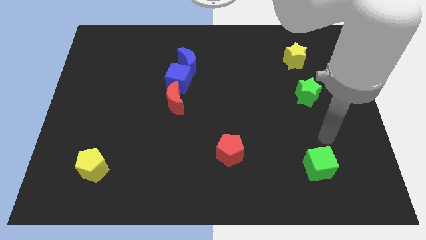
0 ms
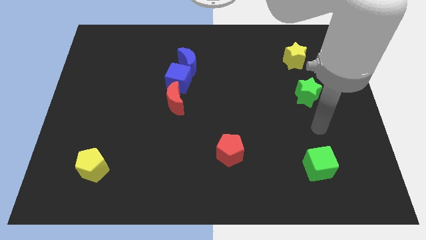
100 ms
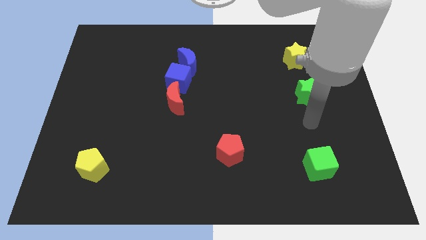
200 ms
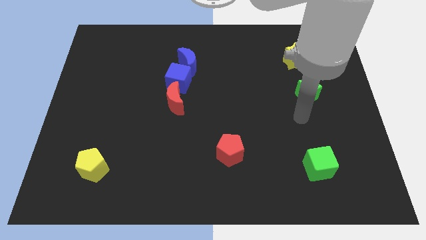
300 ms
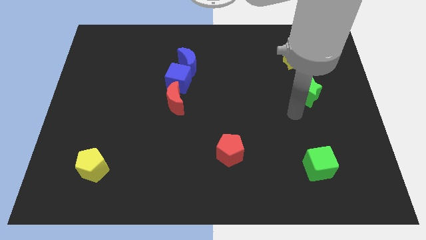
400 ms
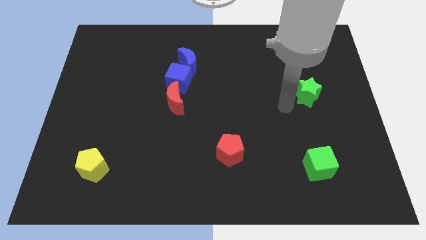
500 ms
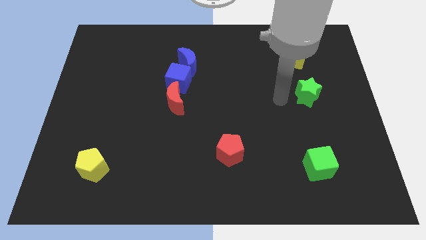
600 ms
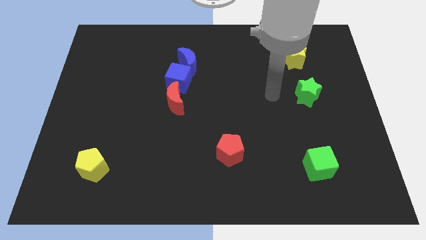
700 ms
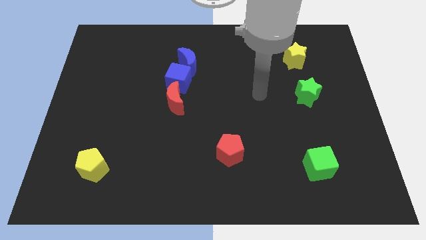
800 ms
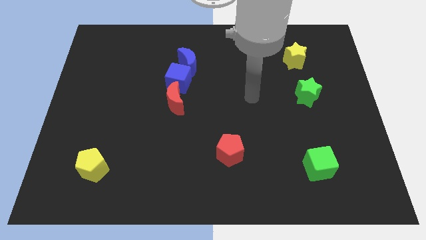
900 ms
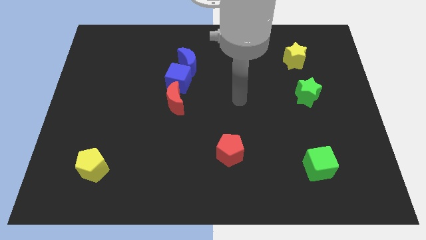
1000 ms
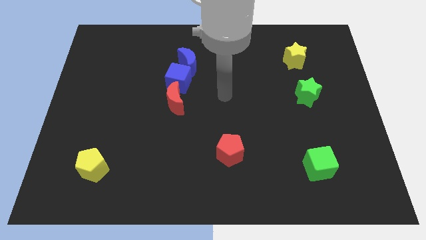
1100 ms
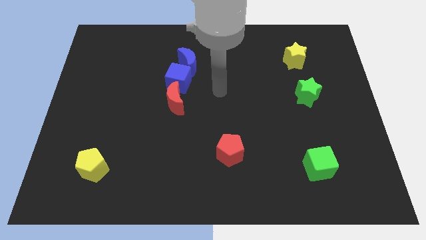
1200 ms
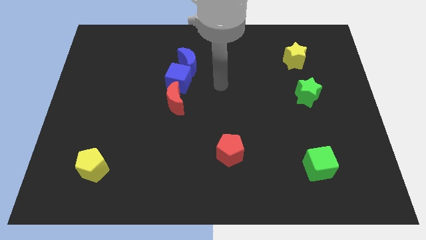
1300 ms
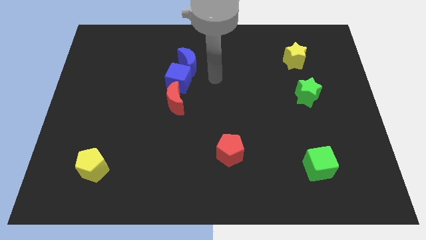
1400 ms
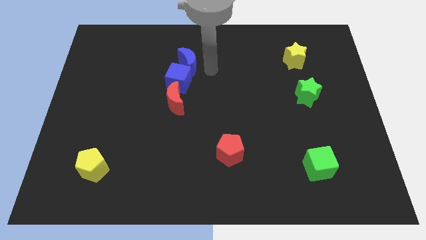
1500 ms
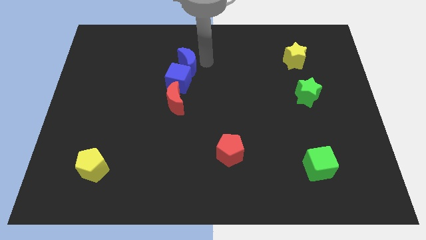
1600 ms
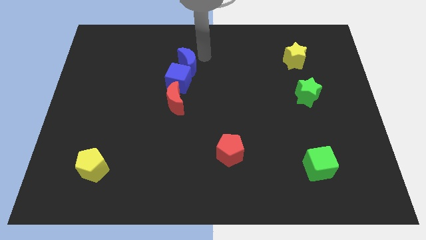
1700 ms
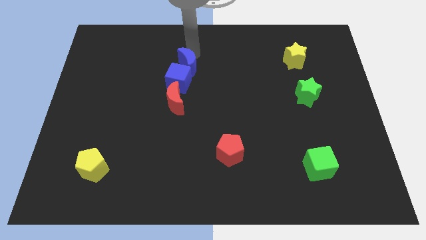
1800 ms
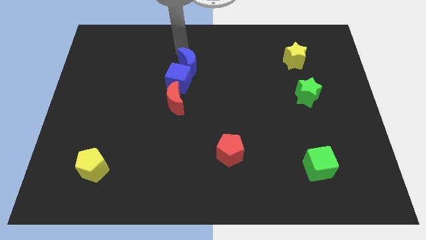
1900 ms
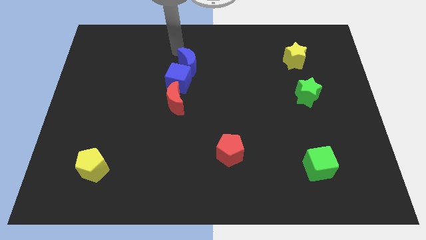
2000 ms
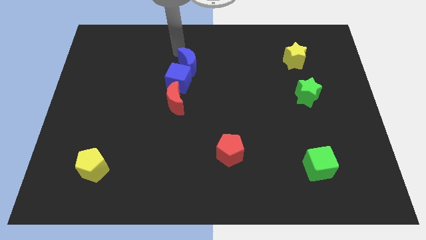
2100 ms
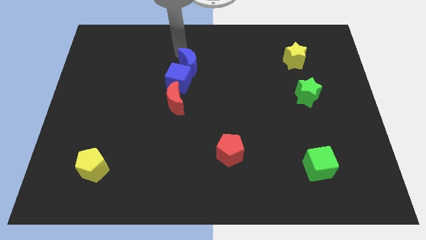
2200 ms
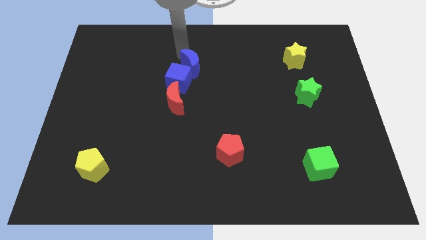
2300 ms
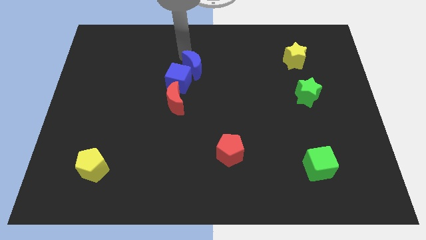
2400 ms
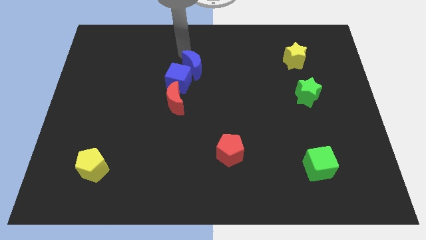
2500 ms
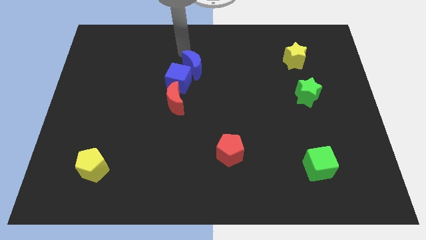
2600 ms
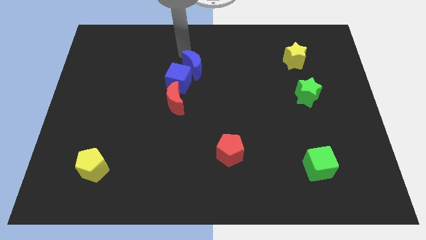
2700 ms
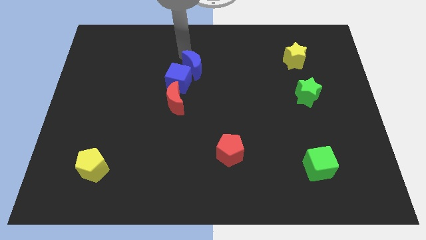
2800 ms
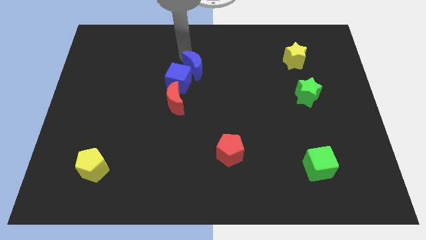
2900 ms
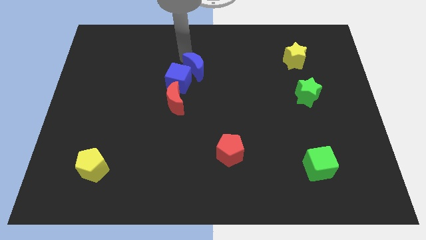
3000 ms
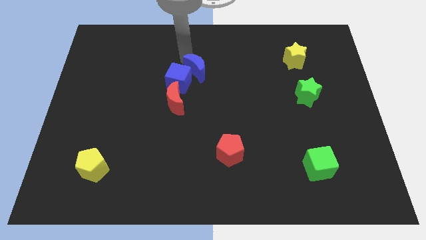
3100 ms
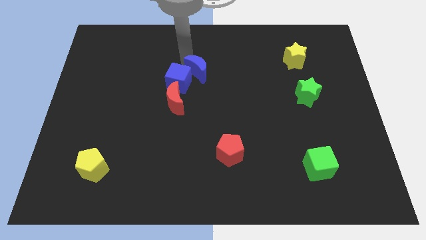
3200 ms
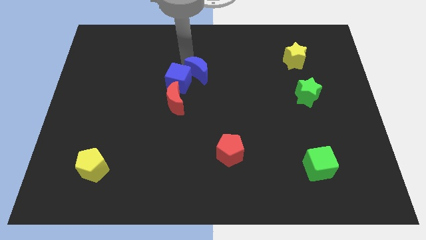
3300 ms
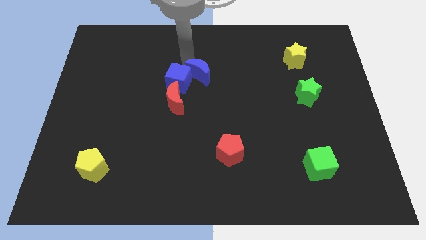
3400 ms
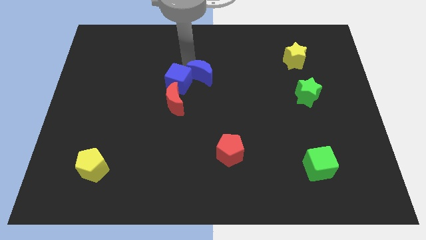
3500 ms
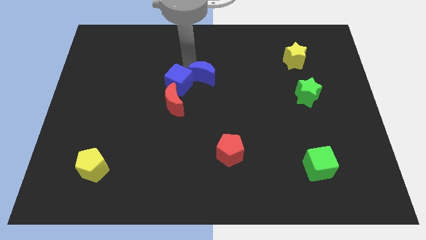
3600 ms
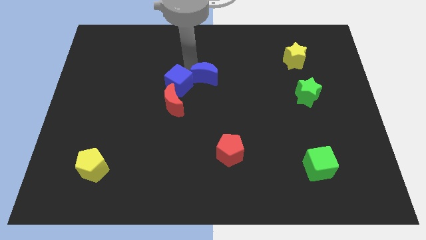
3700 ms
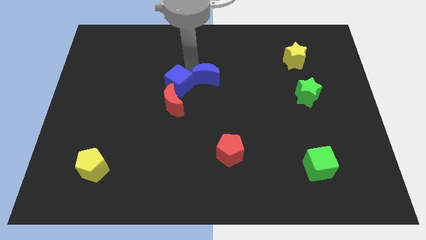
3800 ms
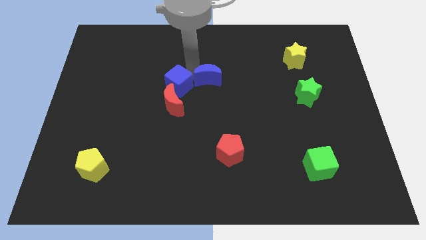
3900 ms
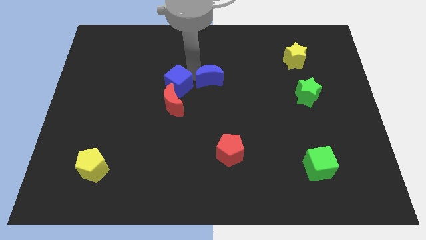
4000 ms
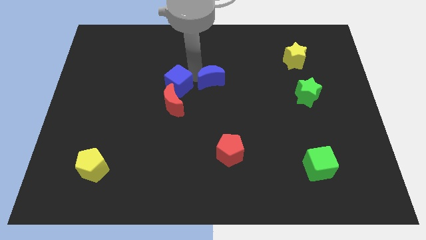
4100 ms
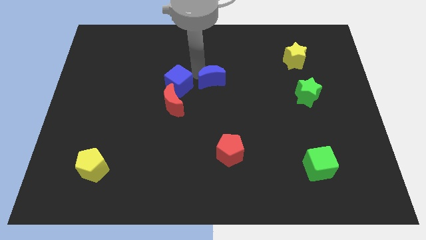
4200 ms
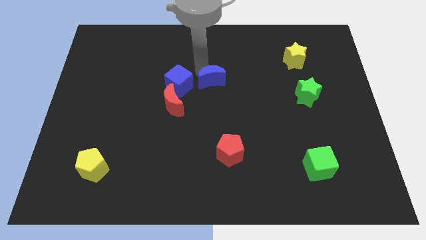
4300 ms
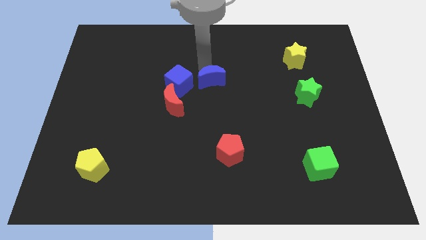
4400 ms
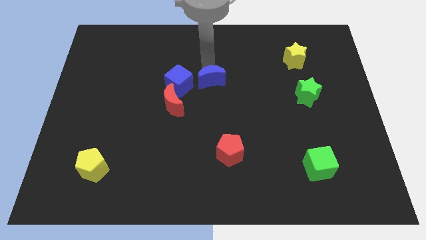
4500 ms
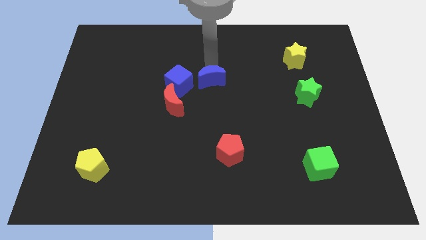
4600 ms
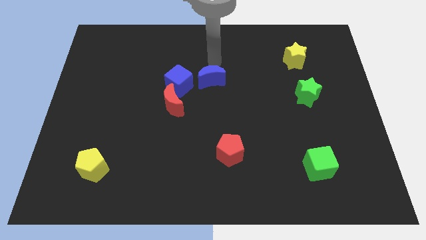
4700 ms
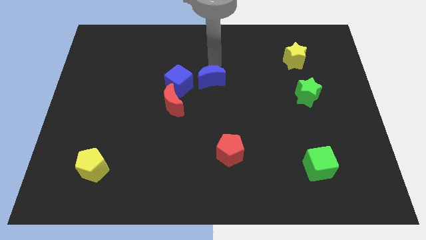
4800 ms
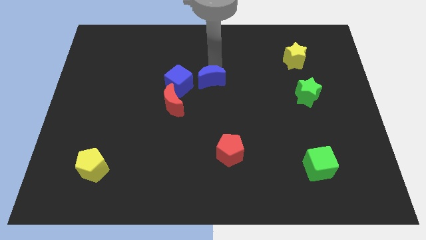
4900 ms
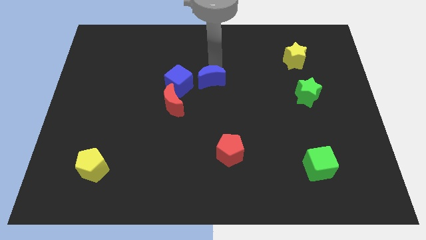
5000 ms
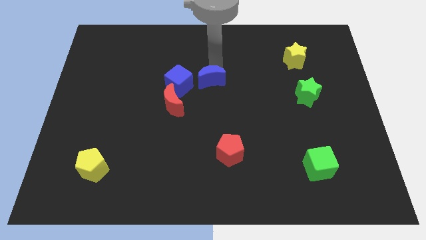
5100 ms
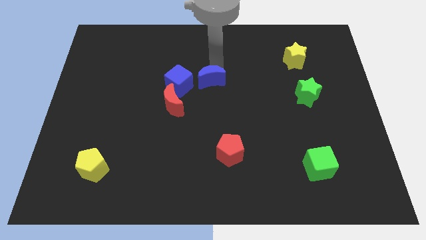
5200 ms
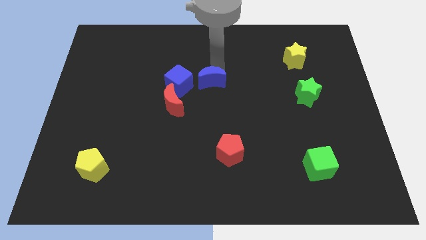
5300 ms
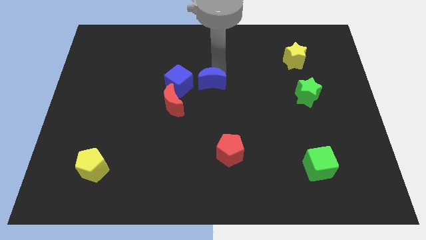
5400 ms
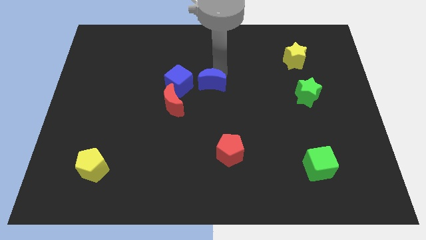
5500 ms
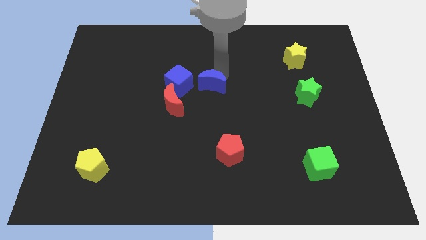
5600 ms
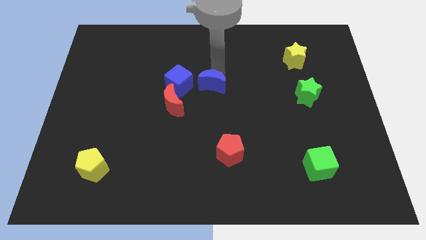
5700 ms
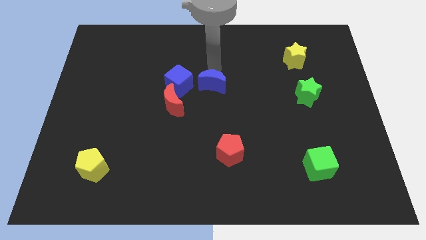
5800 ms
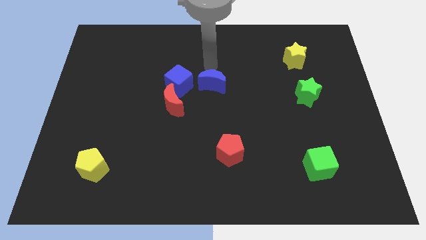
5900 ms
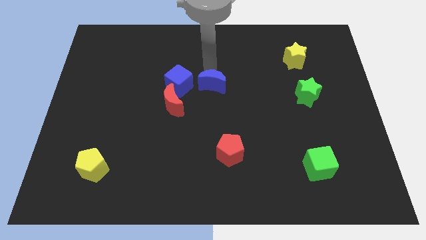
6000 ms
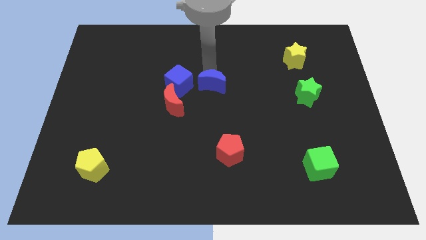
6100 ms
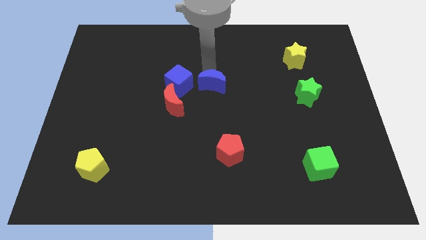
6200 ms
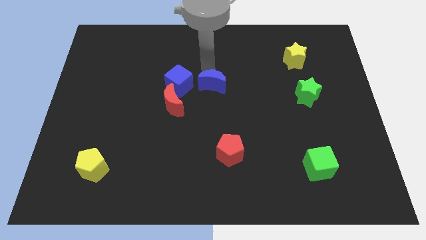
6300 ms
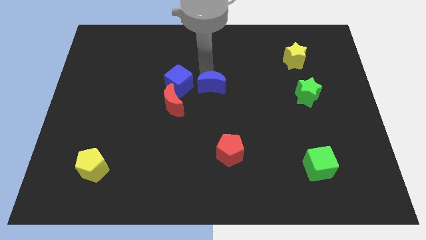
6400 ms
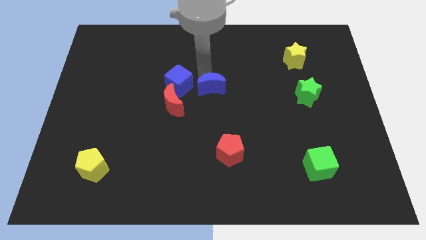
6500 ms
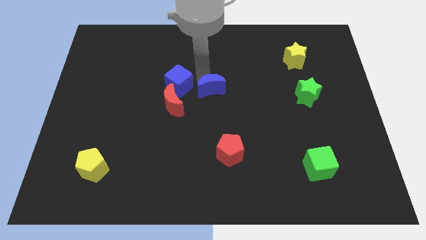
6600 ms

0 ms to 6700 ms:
slide the blue moon right of the red moon
